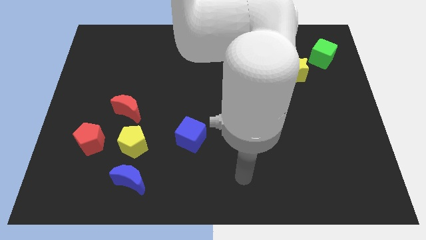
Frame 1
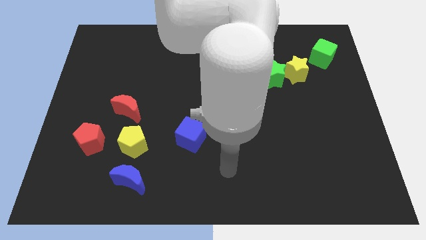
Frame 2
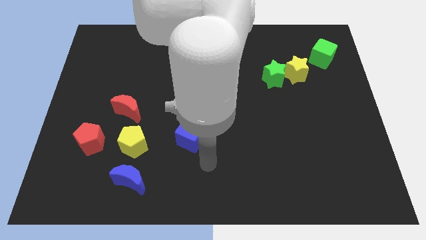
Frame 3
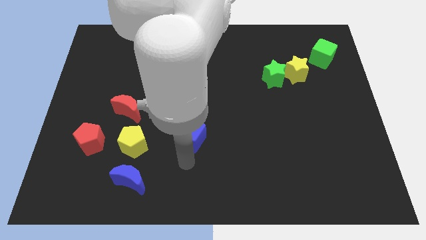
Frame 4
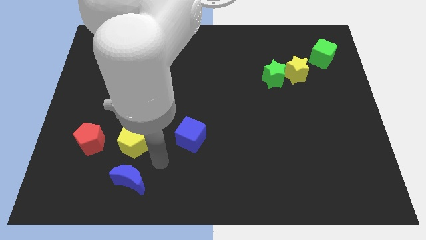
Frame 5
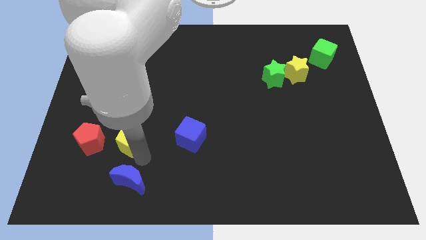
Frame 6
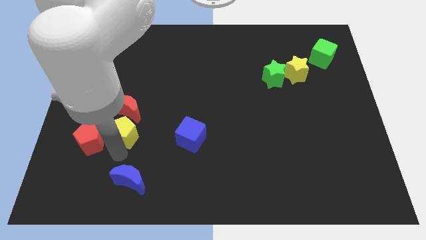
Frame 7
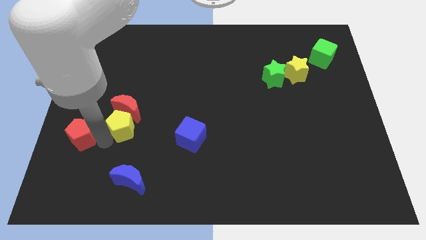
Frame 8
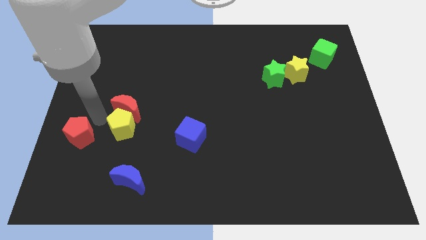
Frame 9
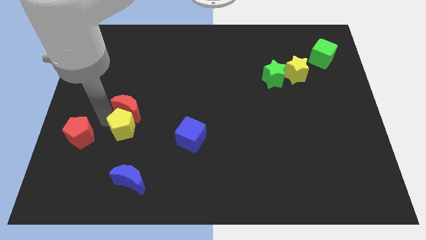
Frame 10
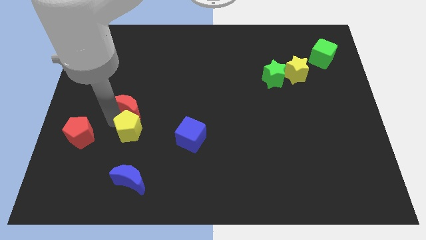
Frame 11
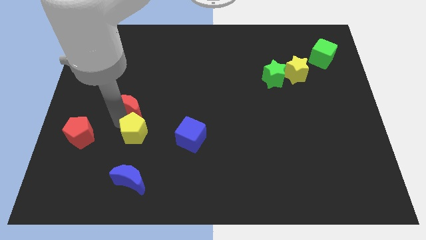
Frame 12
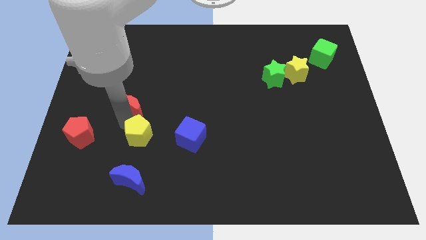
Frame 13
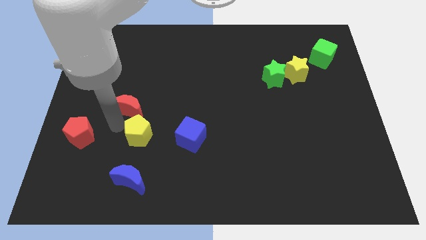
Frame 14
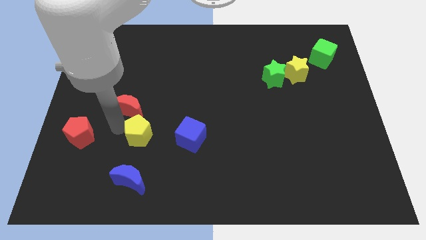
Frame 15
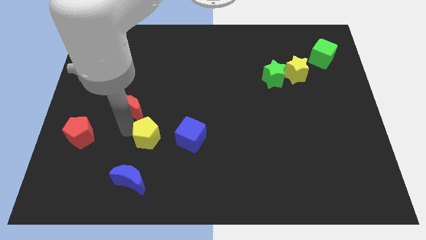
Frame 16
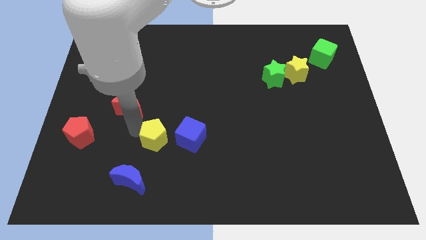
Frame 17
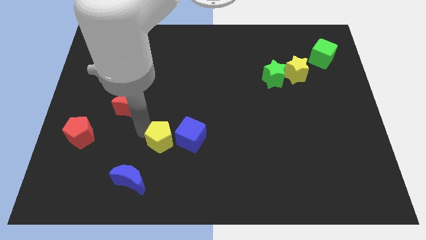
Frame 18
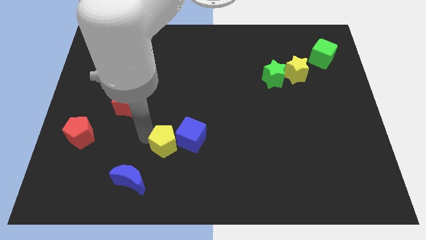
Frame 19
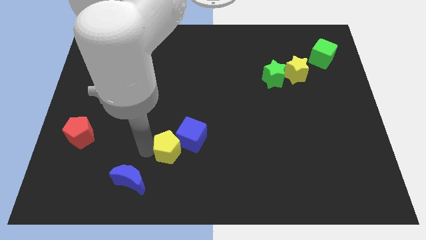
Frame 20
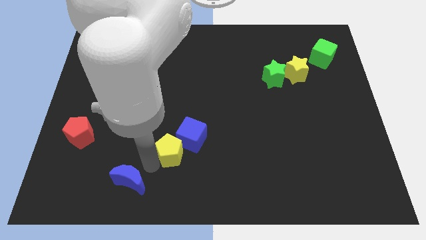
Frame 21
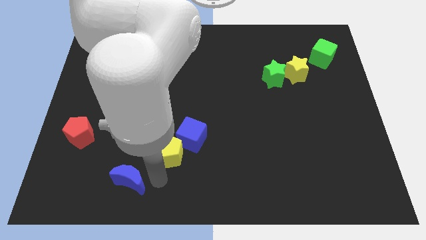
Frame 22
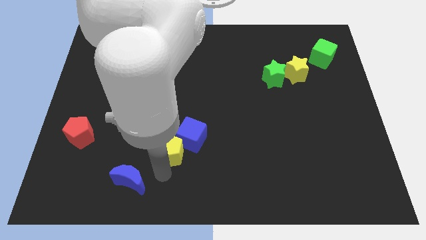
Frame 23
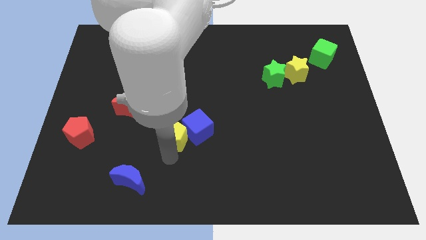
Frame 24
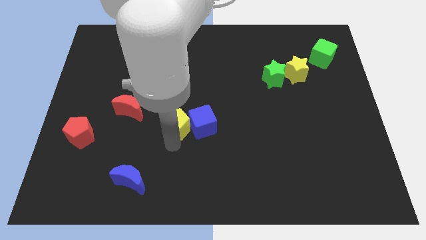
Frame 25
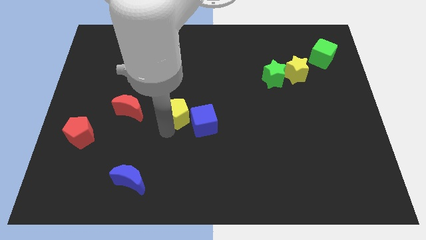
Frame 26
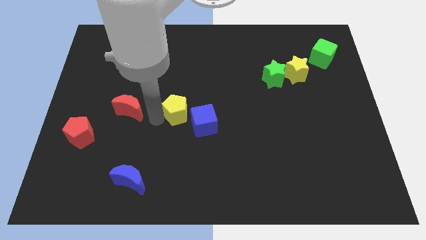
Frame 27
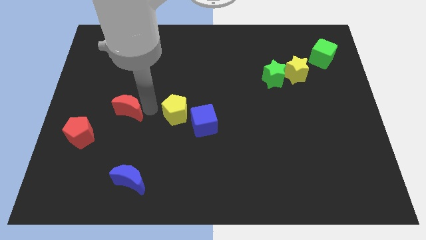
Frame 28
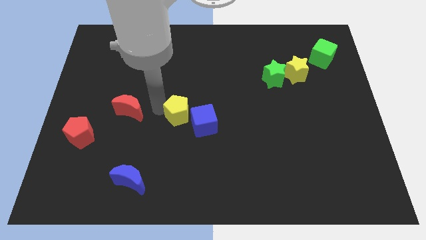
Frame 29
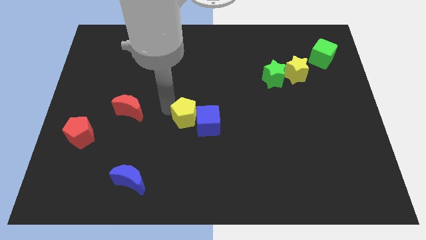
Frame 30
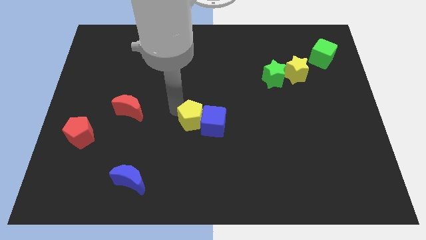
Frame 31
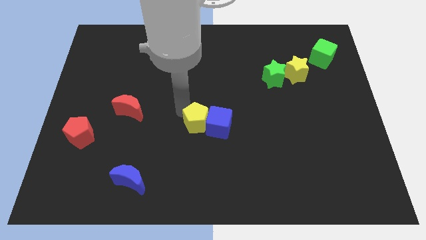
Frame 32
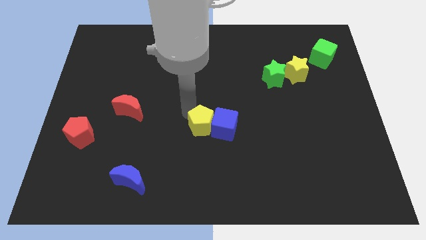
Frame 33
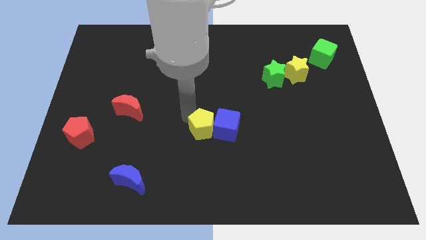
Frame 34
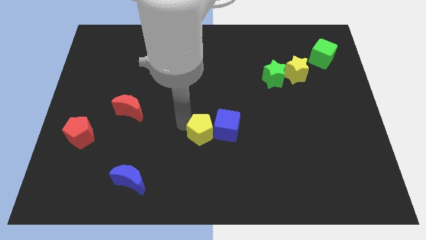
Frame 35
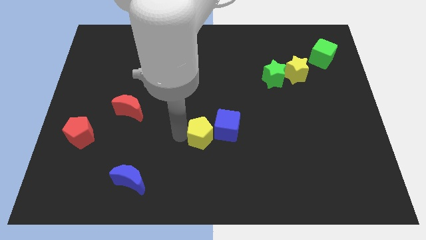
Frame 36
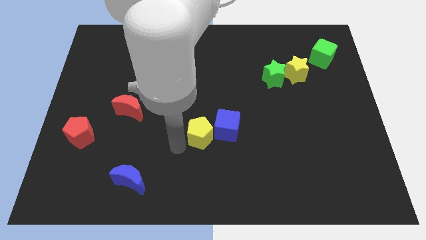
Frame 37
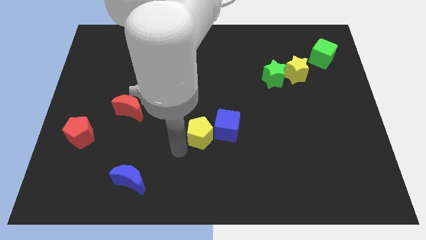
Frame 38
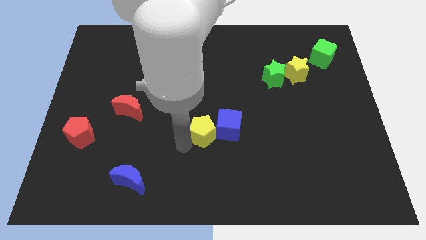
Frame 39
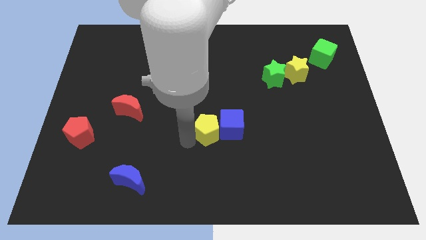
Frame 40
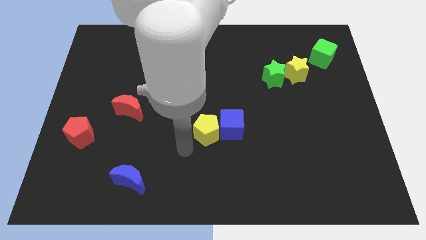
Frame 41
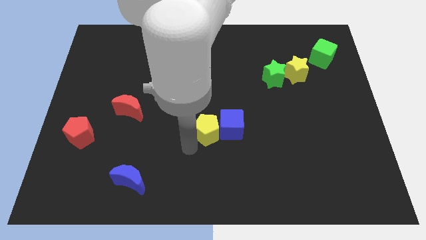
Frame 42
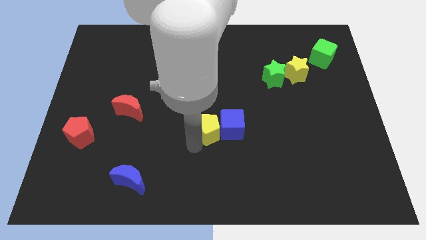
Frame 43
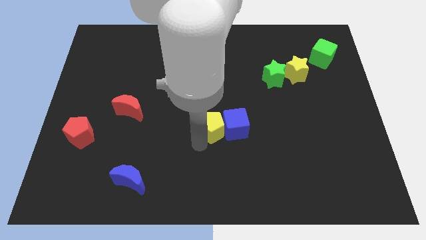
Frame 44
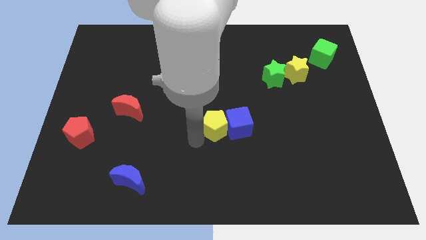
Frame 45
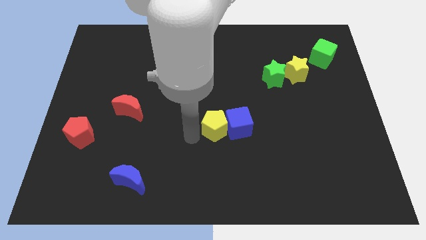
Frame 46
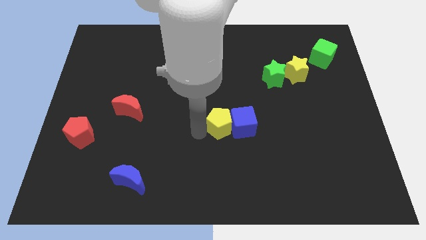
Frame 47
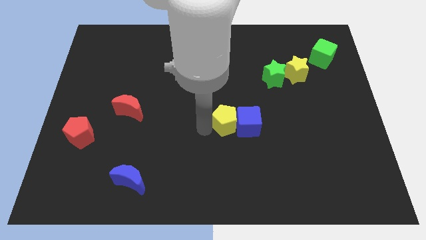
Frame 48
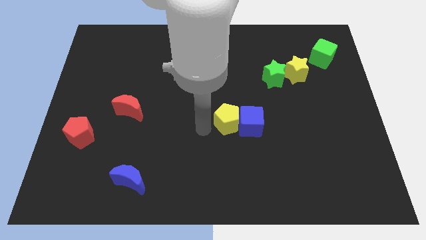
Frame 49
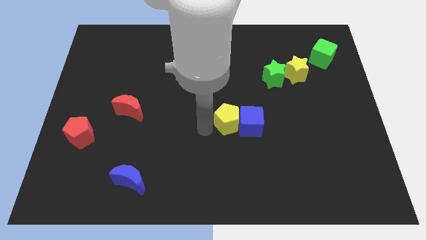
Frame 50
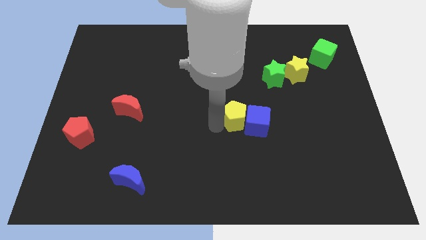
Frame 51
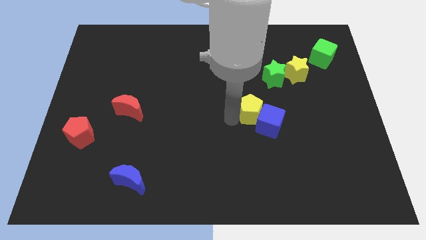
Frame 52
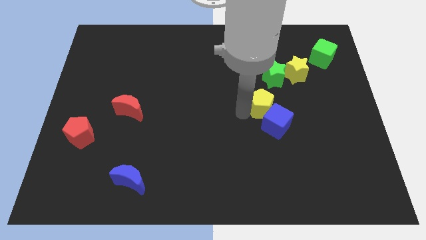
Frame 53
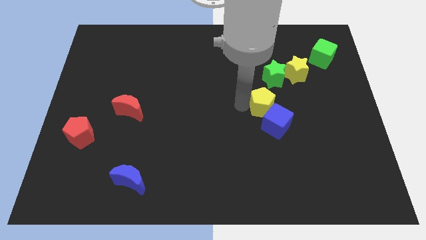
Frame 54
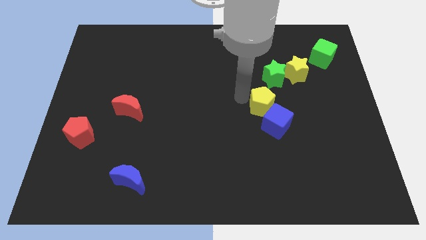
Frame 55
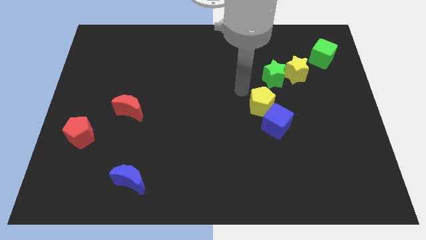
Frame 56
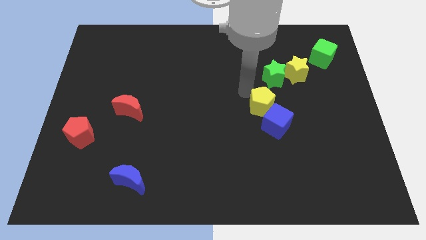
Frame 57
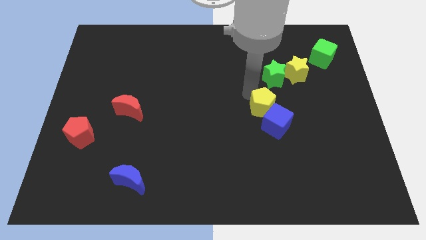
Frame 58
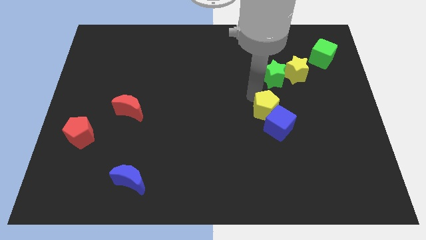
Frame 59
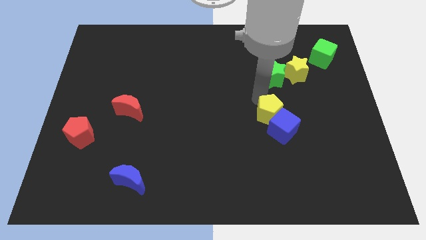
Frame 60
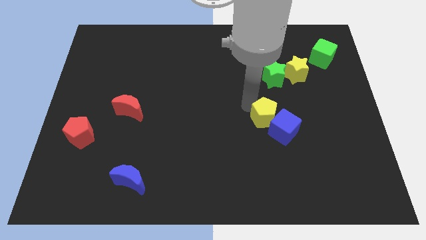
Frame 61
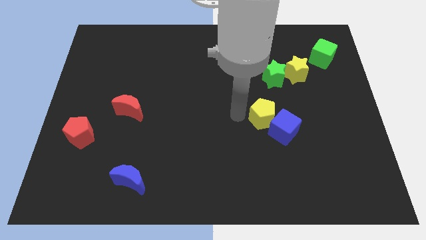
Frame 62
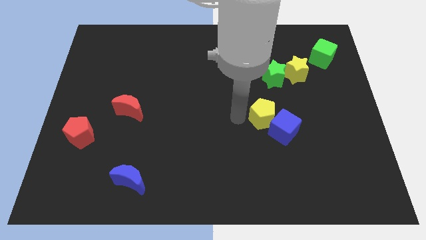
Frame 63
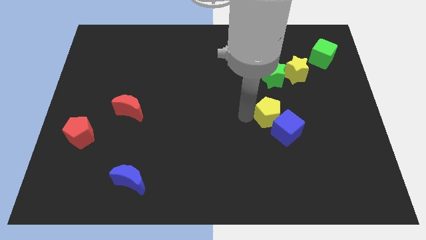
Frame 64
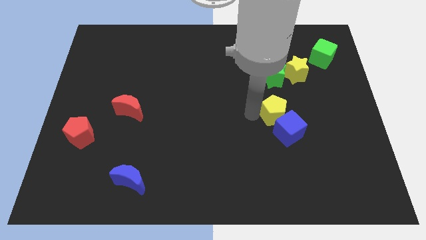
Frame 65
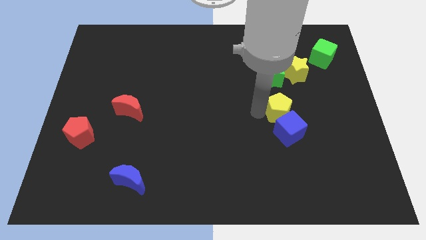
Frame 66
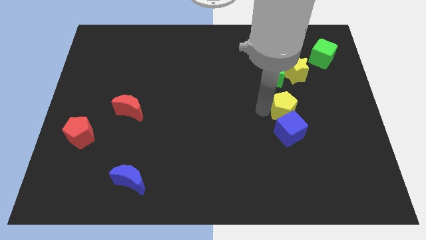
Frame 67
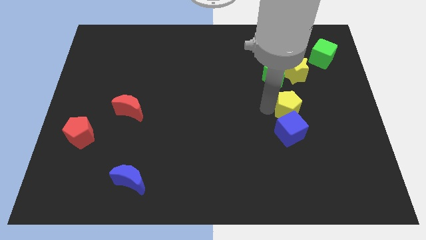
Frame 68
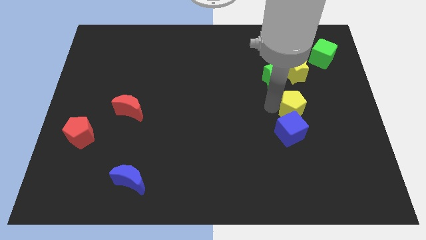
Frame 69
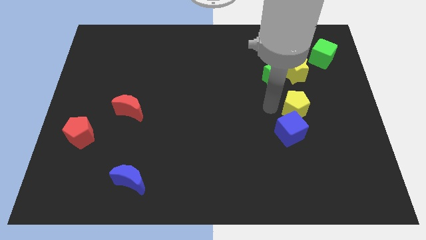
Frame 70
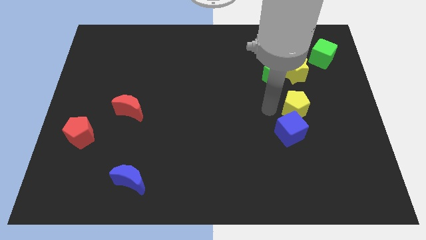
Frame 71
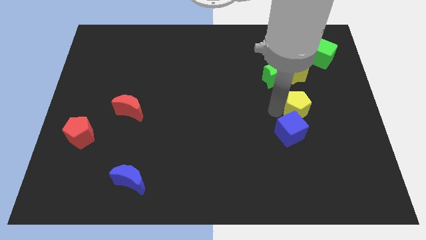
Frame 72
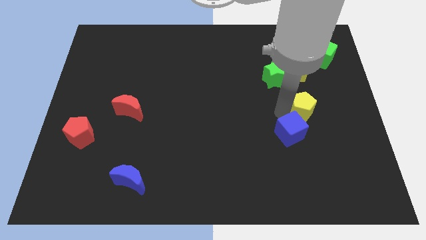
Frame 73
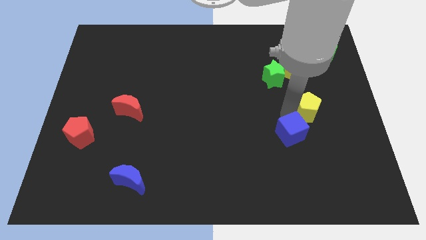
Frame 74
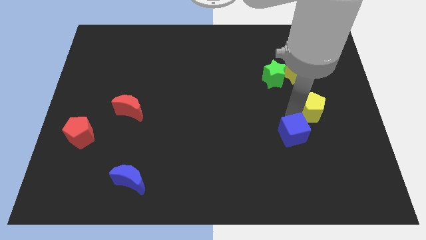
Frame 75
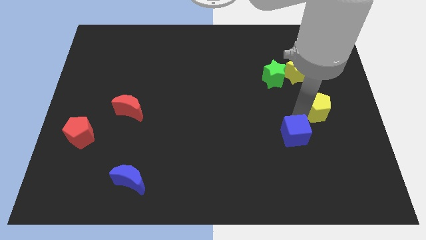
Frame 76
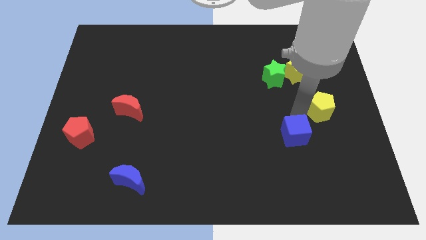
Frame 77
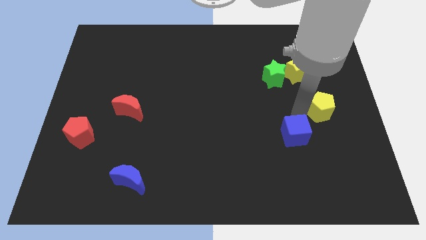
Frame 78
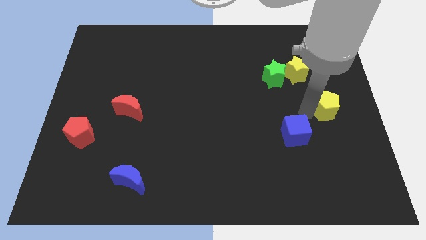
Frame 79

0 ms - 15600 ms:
slide the yellow pentagon to the center right
